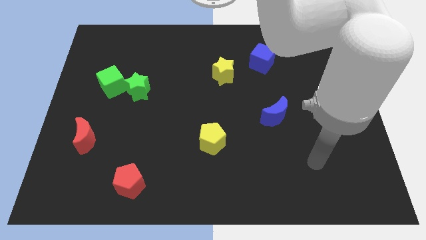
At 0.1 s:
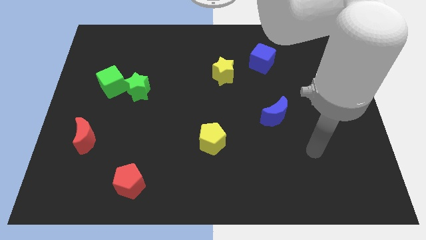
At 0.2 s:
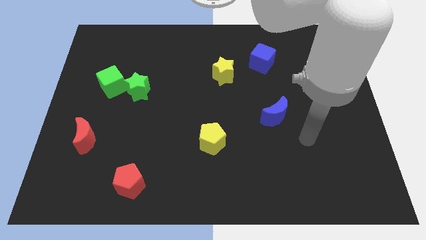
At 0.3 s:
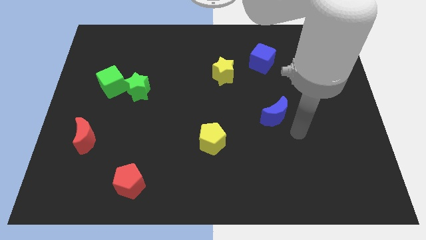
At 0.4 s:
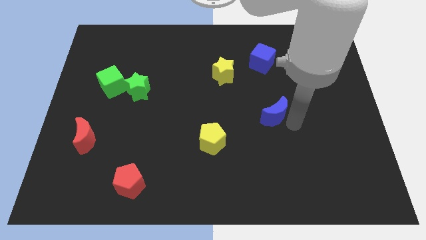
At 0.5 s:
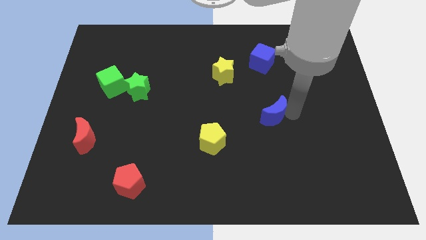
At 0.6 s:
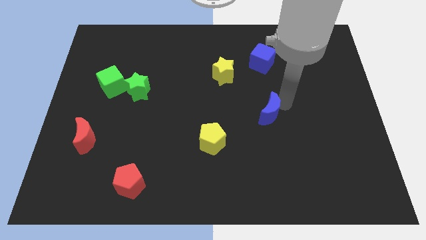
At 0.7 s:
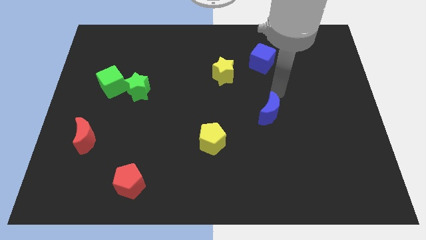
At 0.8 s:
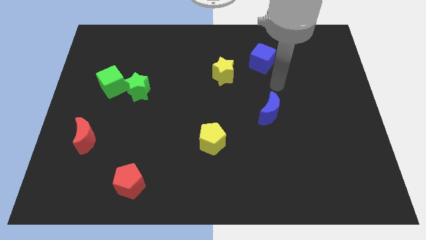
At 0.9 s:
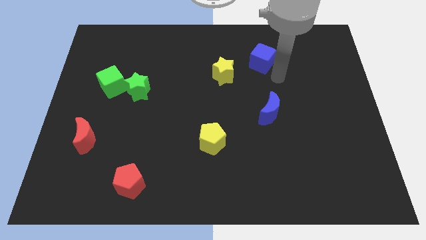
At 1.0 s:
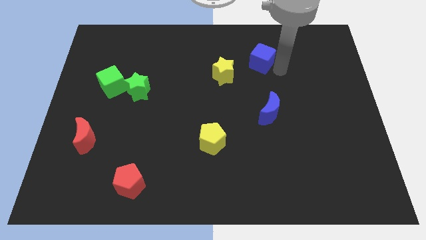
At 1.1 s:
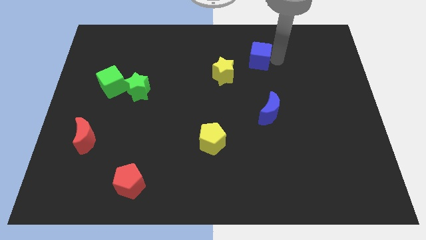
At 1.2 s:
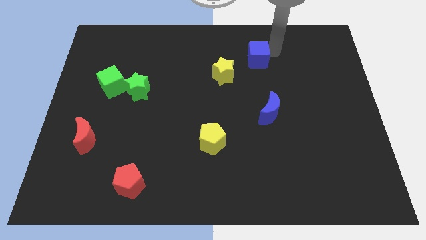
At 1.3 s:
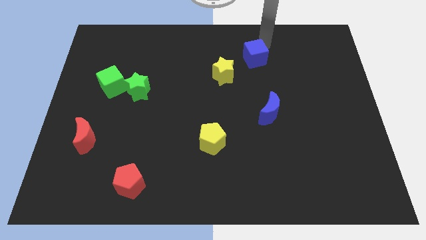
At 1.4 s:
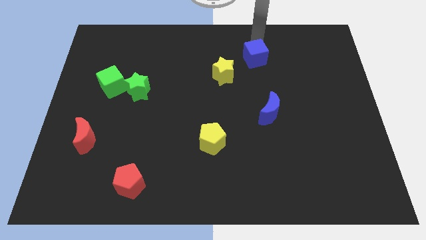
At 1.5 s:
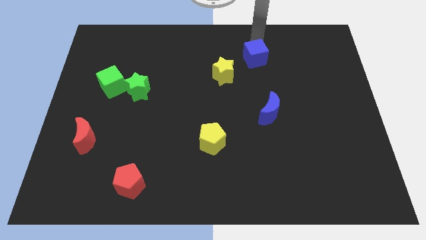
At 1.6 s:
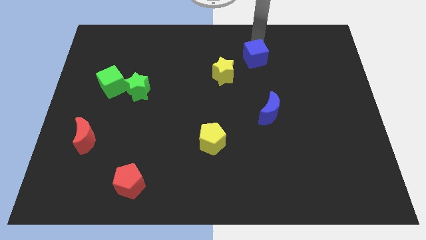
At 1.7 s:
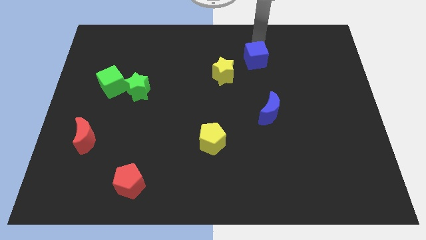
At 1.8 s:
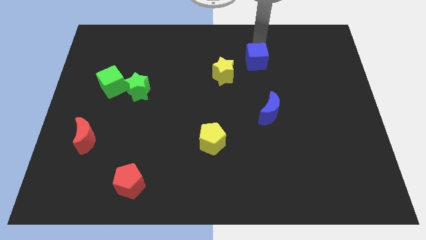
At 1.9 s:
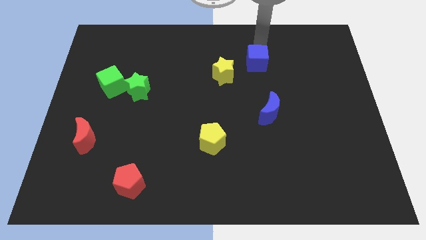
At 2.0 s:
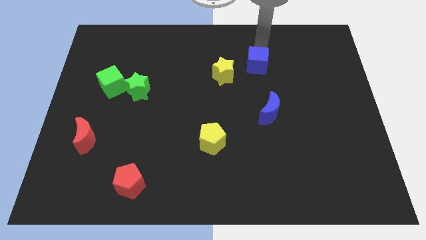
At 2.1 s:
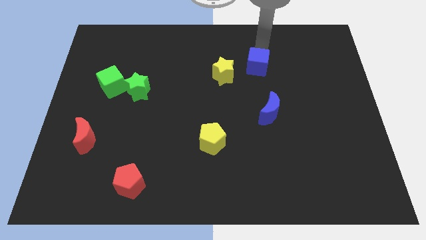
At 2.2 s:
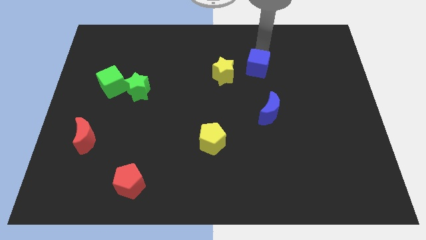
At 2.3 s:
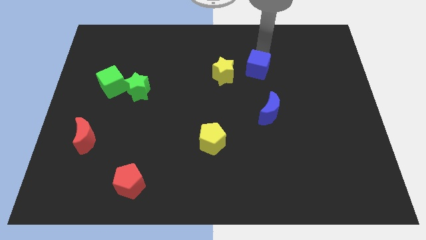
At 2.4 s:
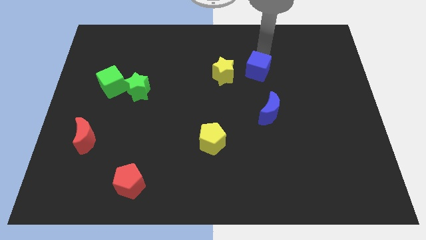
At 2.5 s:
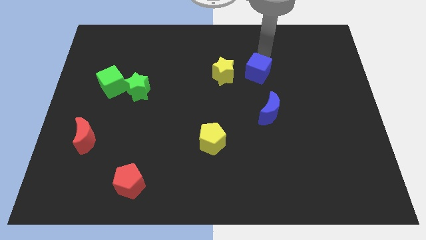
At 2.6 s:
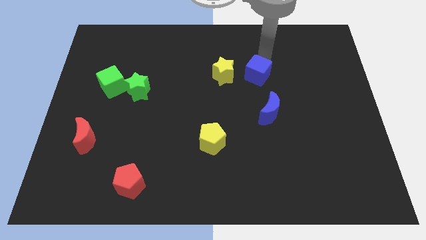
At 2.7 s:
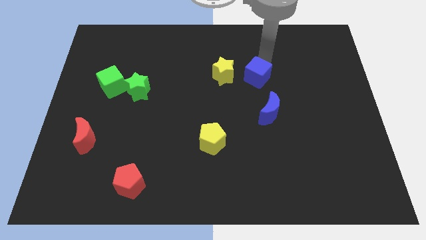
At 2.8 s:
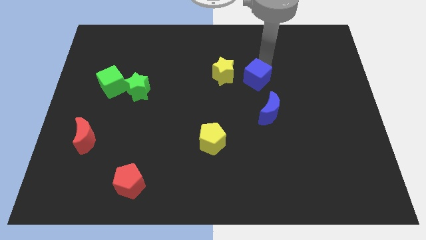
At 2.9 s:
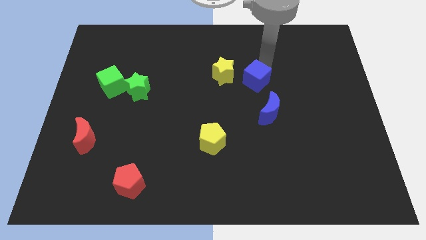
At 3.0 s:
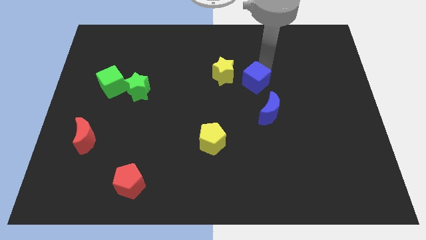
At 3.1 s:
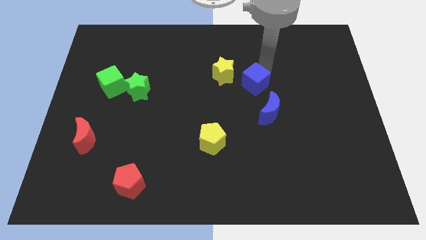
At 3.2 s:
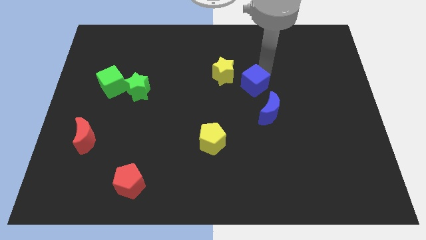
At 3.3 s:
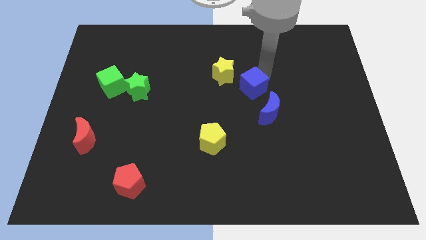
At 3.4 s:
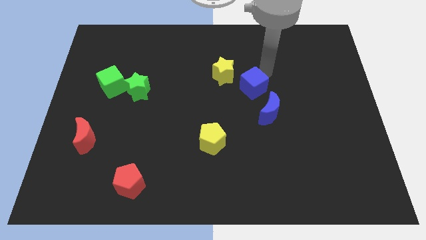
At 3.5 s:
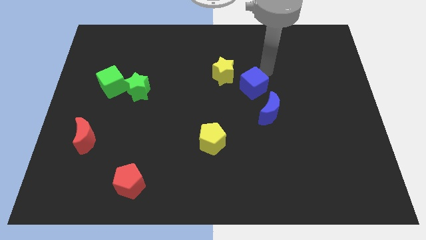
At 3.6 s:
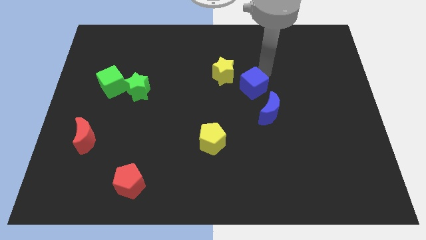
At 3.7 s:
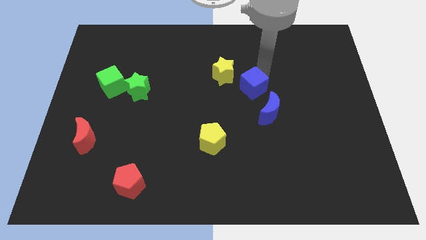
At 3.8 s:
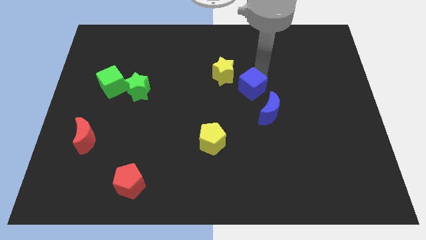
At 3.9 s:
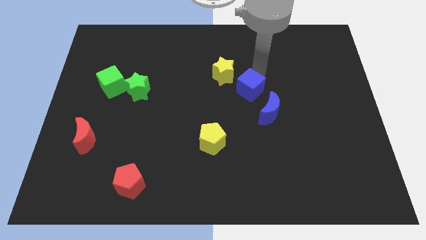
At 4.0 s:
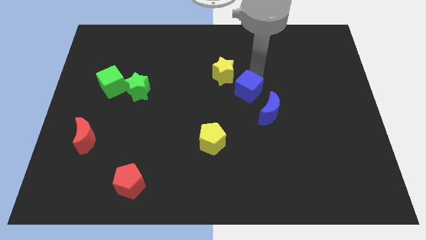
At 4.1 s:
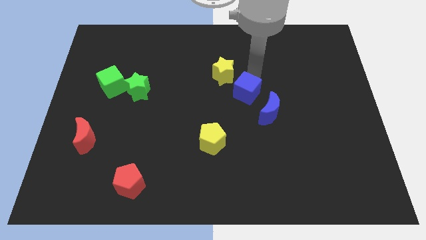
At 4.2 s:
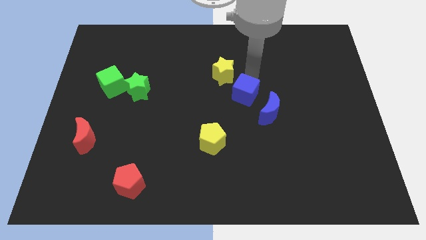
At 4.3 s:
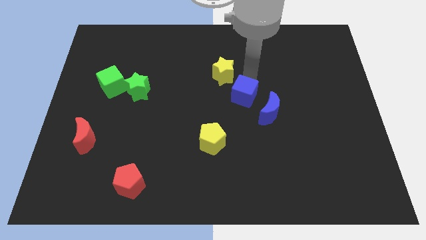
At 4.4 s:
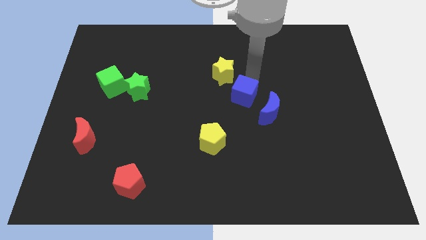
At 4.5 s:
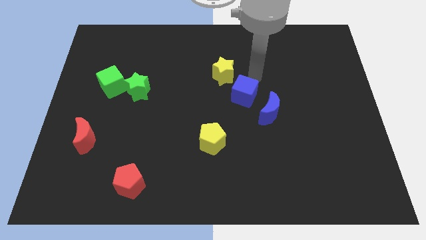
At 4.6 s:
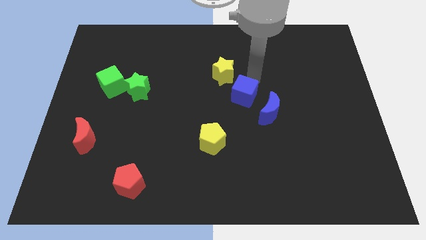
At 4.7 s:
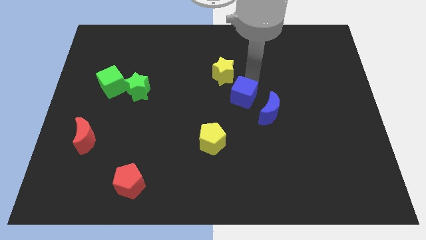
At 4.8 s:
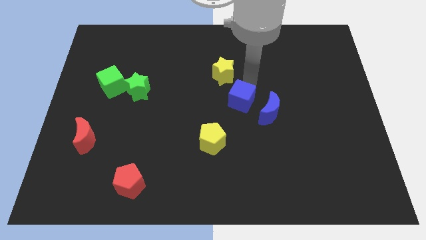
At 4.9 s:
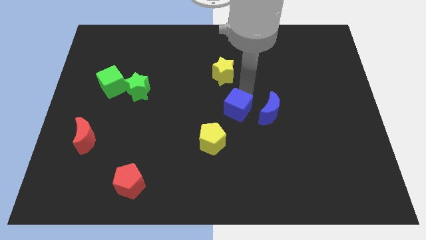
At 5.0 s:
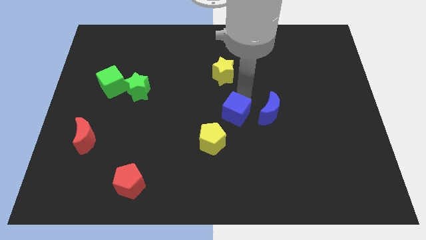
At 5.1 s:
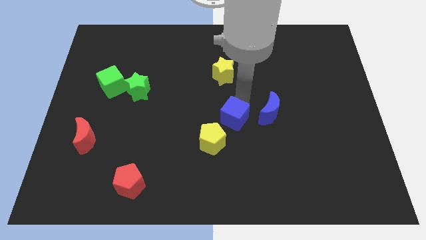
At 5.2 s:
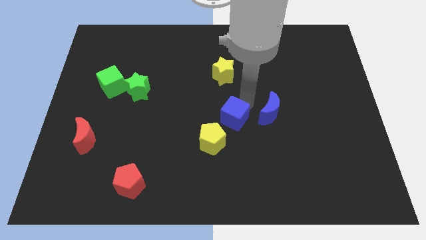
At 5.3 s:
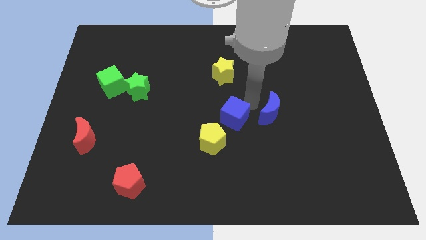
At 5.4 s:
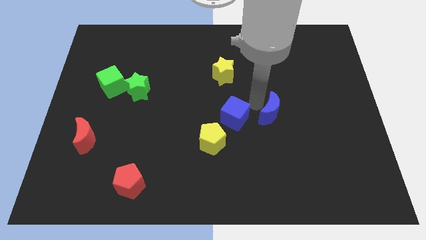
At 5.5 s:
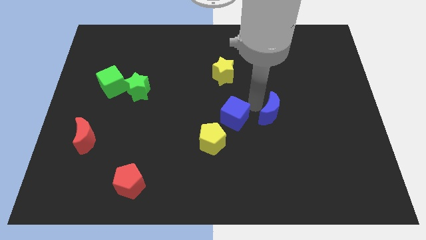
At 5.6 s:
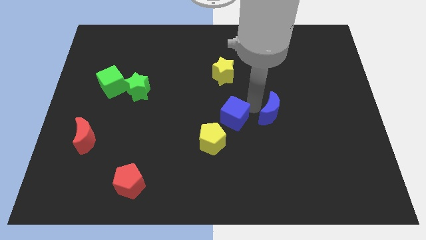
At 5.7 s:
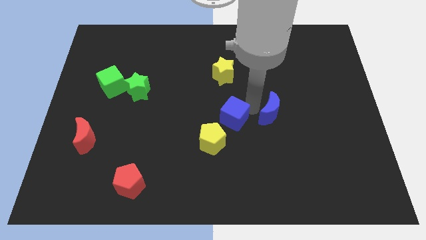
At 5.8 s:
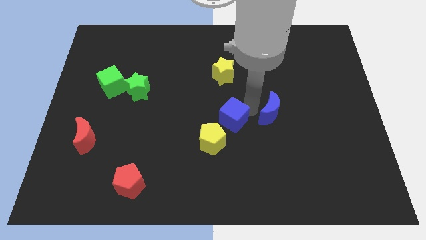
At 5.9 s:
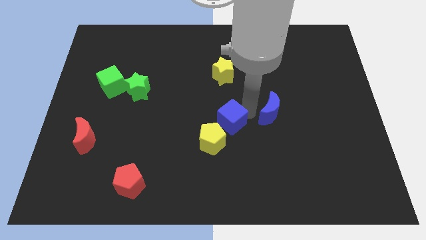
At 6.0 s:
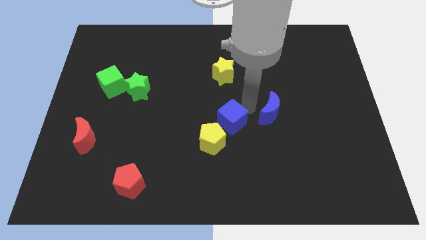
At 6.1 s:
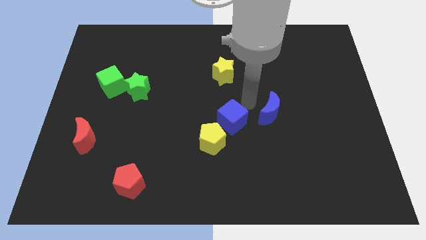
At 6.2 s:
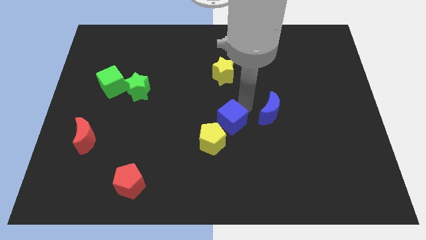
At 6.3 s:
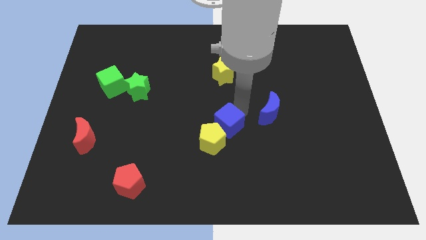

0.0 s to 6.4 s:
put the blue cube towards the yellow pentagon

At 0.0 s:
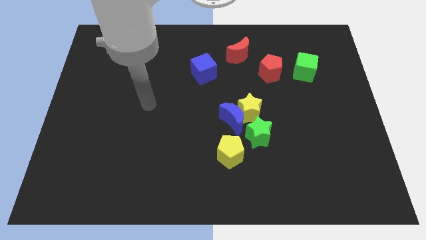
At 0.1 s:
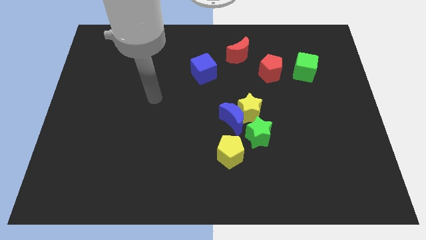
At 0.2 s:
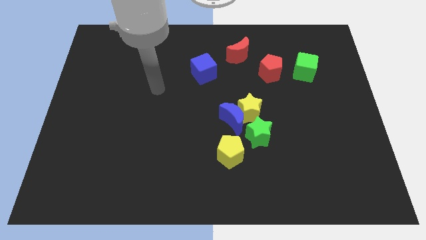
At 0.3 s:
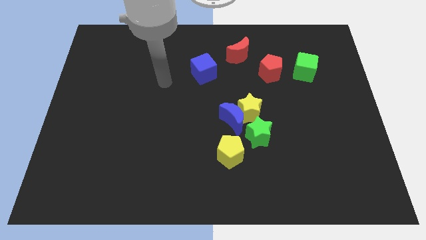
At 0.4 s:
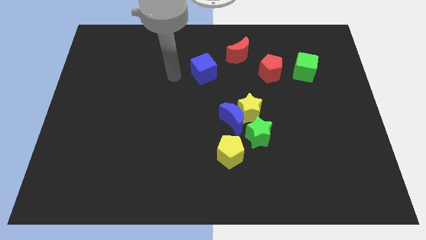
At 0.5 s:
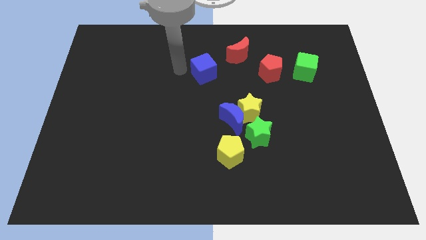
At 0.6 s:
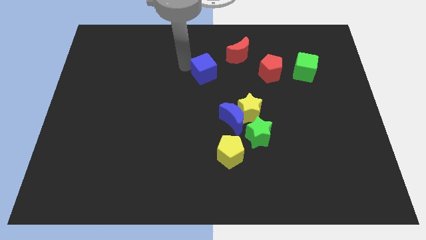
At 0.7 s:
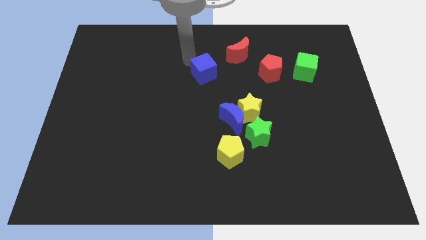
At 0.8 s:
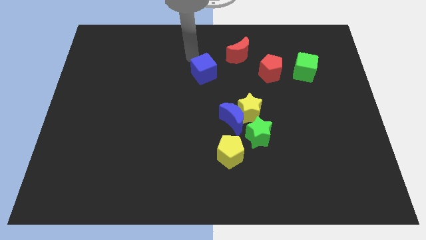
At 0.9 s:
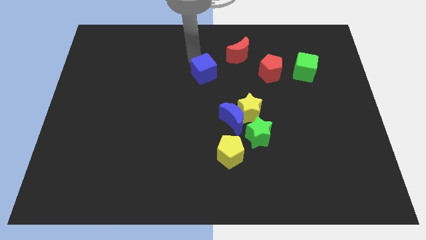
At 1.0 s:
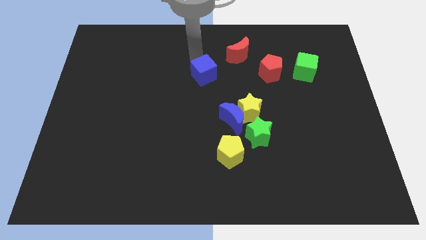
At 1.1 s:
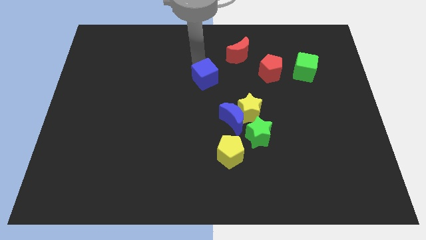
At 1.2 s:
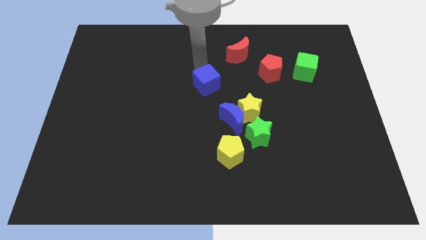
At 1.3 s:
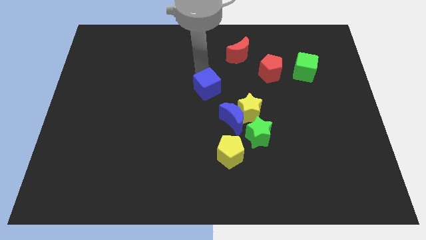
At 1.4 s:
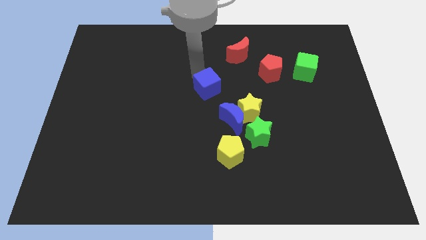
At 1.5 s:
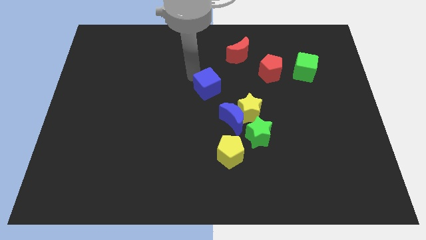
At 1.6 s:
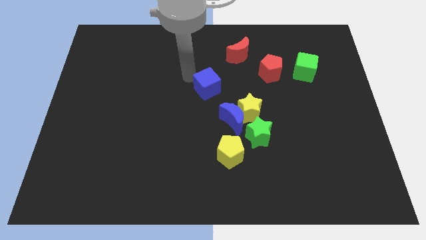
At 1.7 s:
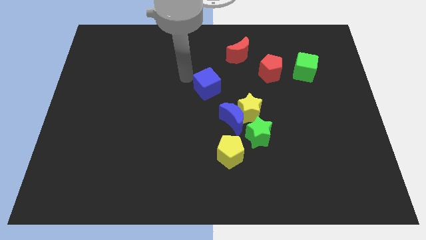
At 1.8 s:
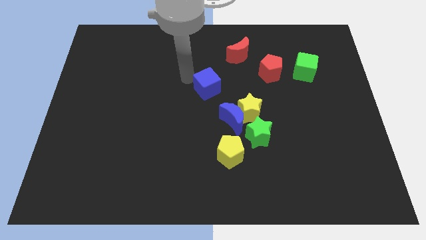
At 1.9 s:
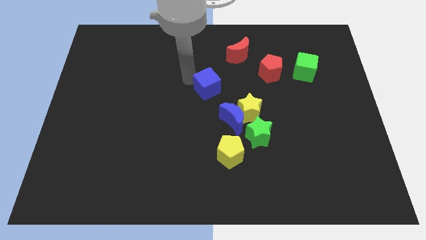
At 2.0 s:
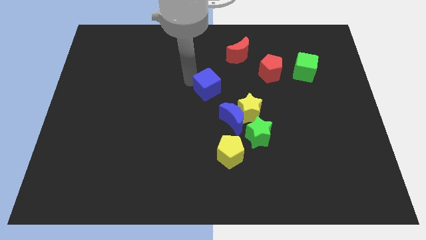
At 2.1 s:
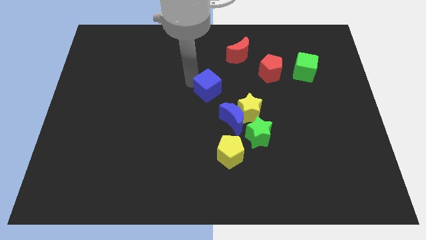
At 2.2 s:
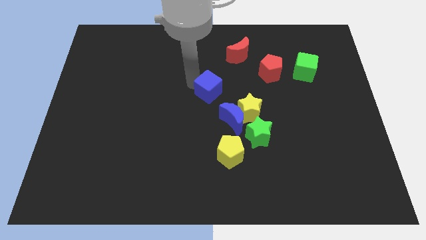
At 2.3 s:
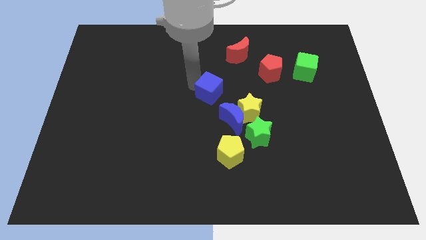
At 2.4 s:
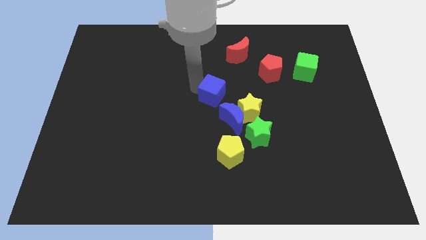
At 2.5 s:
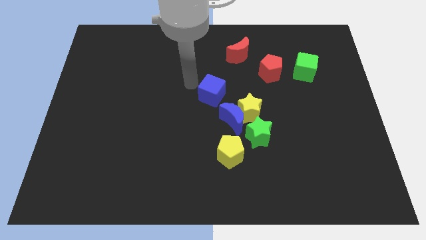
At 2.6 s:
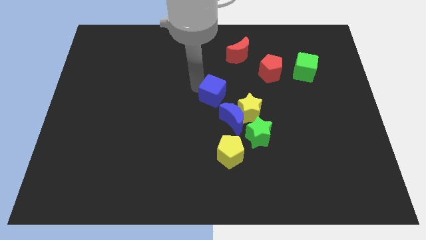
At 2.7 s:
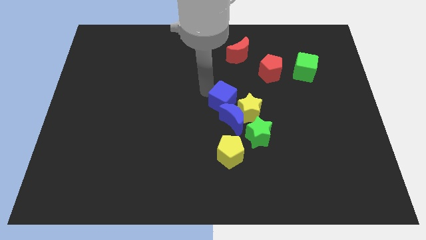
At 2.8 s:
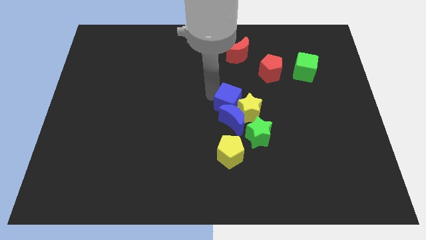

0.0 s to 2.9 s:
push the blue cube towards the yellow star
